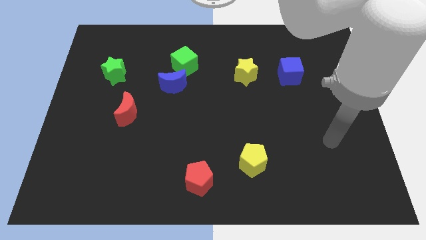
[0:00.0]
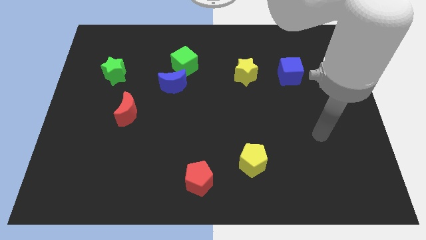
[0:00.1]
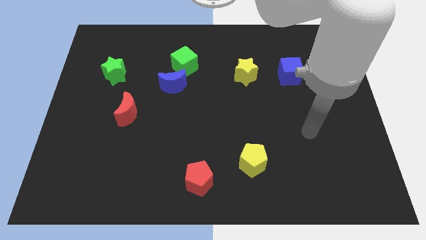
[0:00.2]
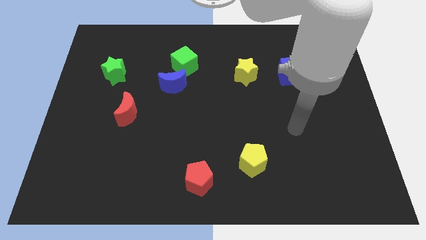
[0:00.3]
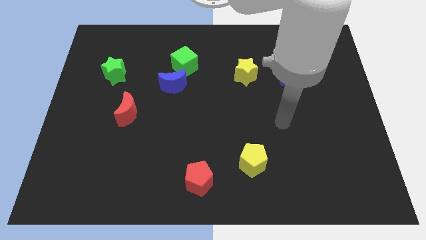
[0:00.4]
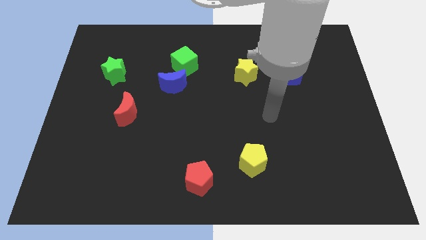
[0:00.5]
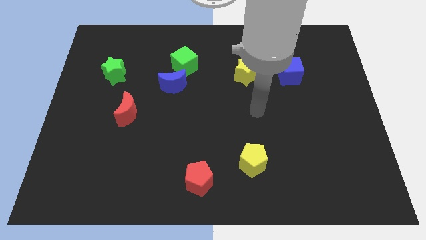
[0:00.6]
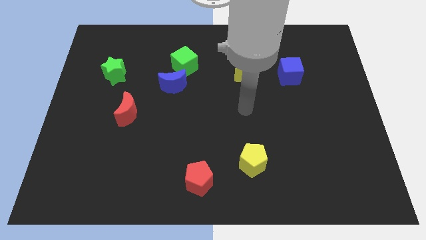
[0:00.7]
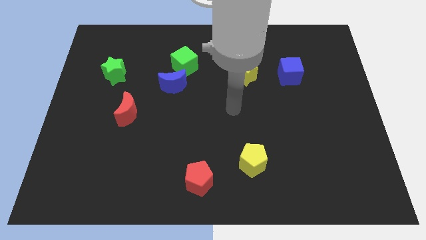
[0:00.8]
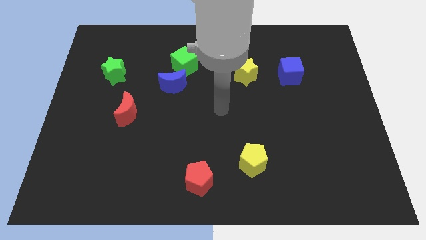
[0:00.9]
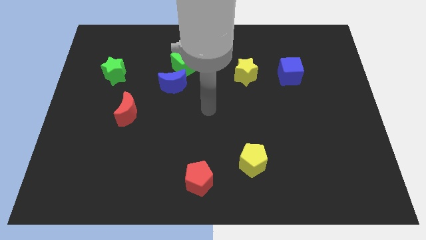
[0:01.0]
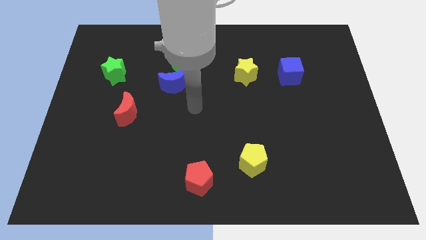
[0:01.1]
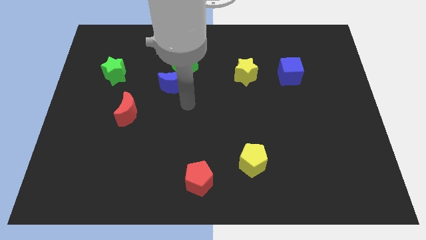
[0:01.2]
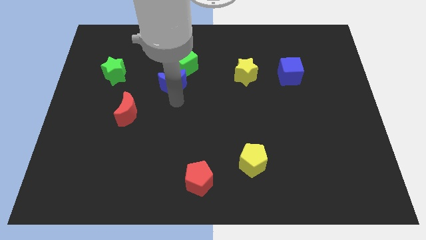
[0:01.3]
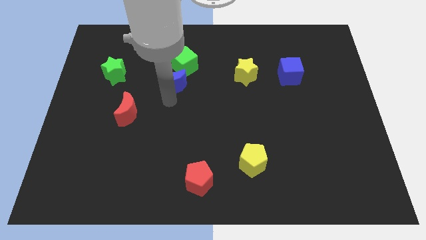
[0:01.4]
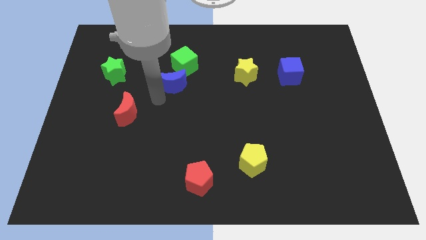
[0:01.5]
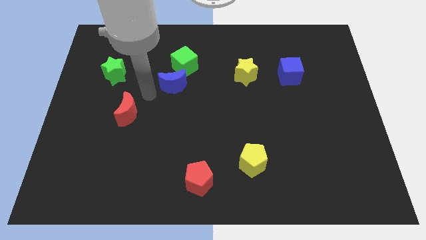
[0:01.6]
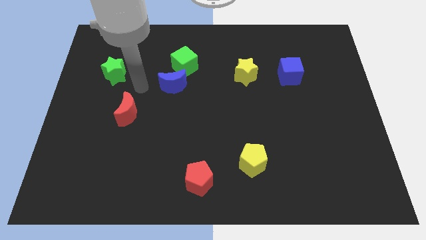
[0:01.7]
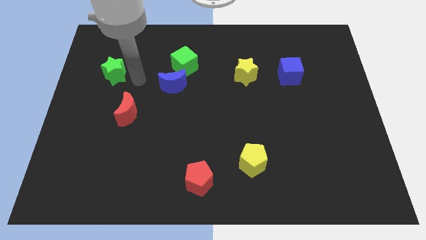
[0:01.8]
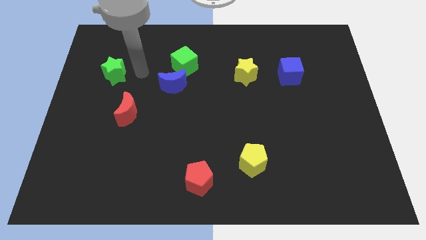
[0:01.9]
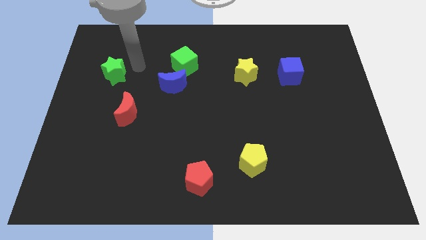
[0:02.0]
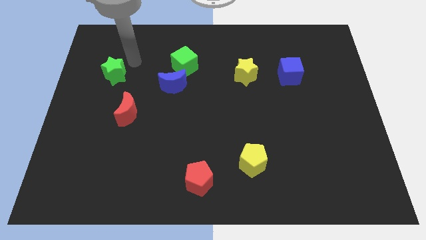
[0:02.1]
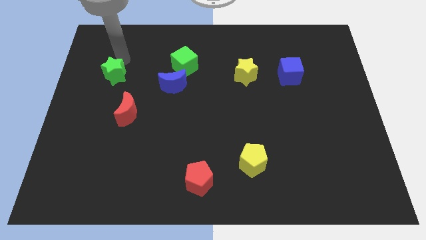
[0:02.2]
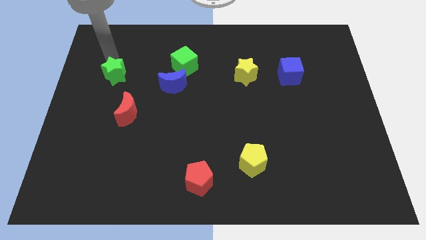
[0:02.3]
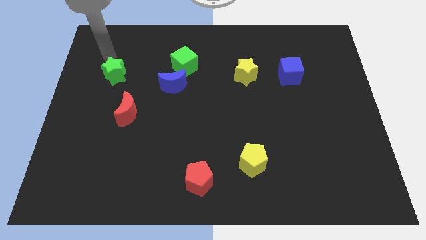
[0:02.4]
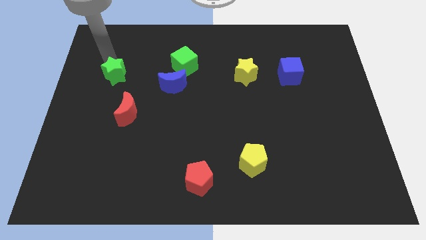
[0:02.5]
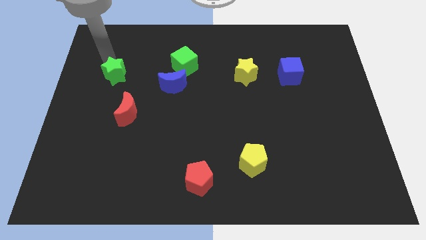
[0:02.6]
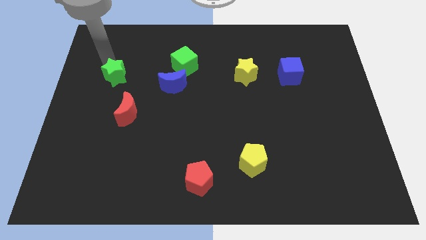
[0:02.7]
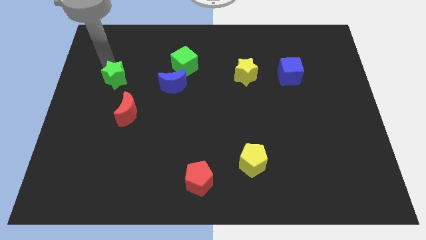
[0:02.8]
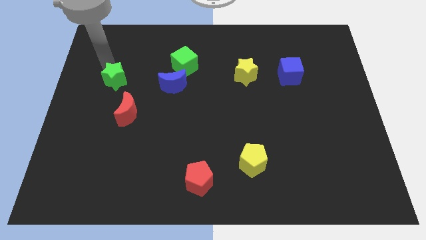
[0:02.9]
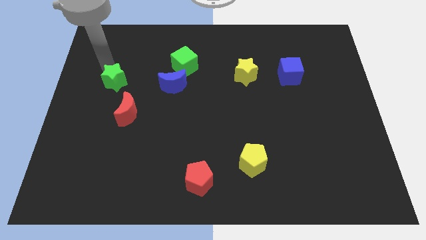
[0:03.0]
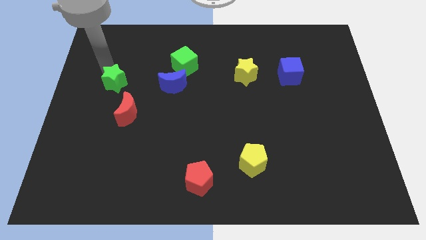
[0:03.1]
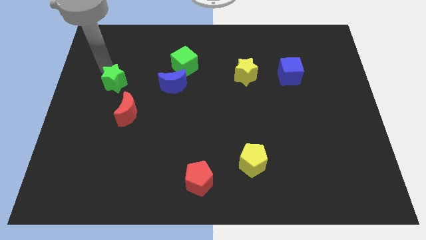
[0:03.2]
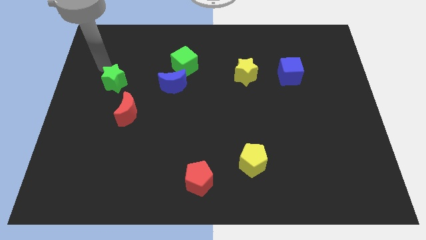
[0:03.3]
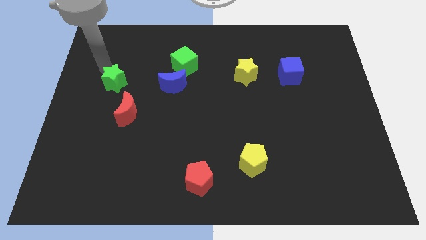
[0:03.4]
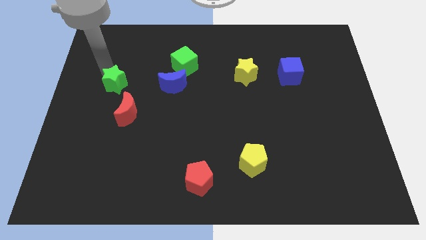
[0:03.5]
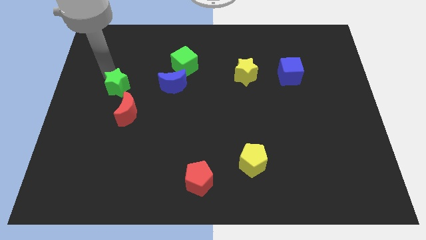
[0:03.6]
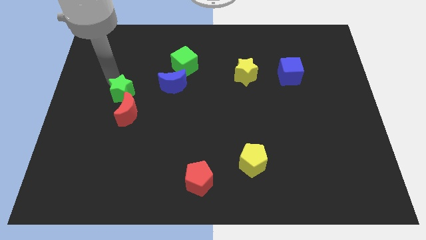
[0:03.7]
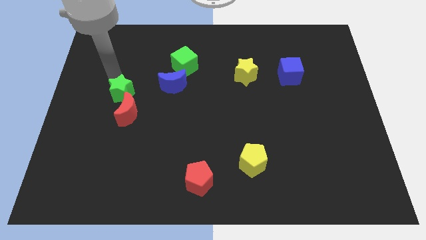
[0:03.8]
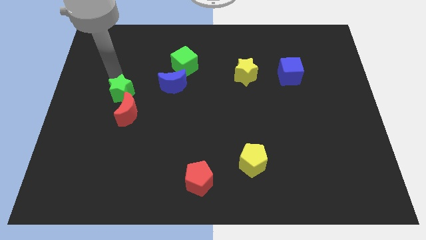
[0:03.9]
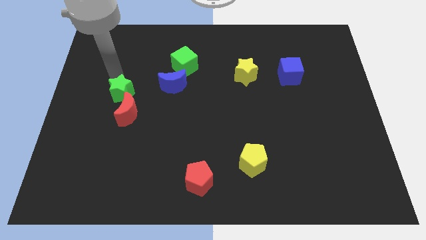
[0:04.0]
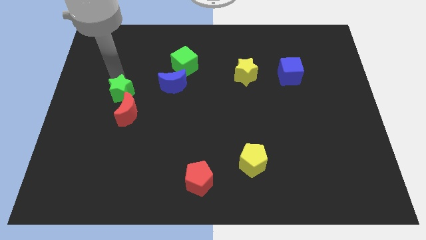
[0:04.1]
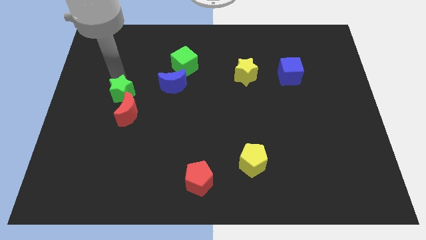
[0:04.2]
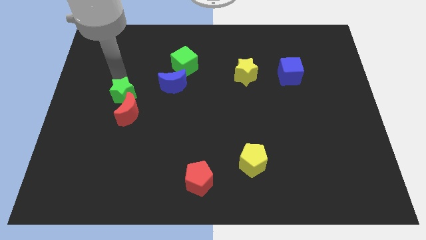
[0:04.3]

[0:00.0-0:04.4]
put the green star close to the red moon

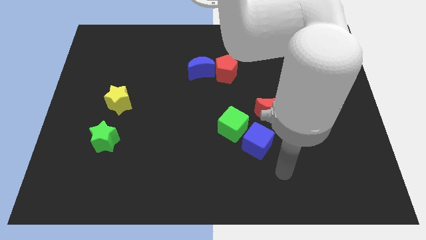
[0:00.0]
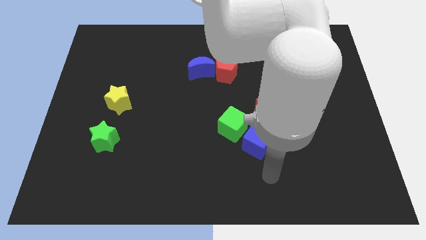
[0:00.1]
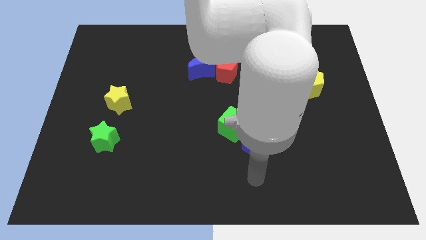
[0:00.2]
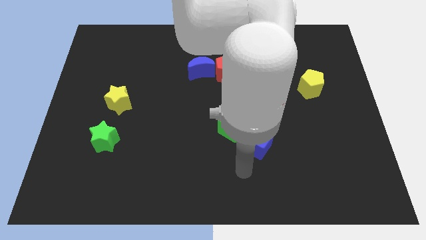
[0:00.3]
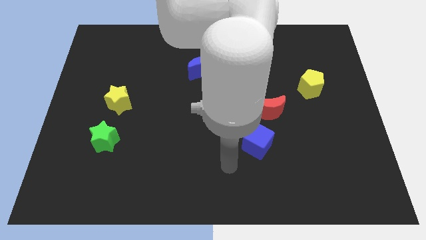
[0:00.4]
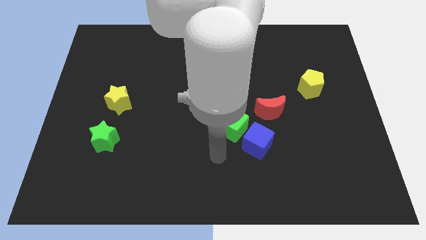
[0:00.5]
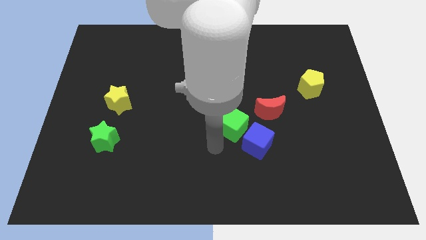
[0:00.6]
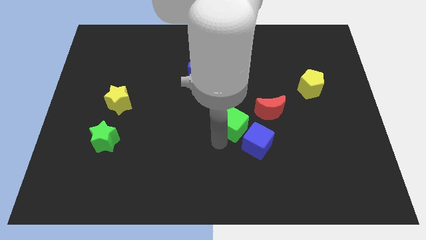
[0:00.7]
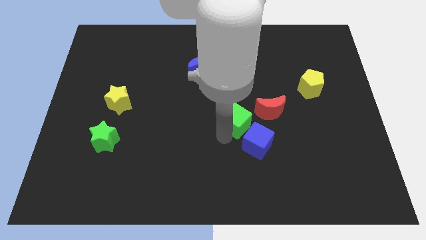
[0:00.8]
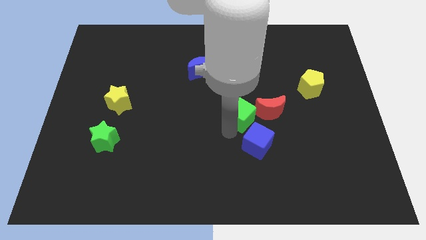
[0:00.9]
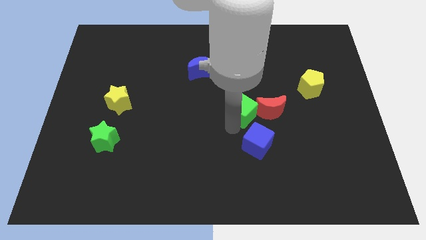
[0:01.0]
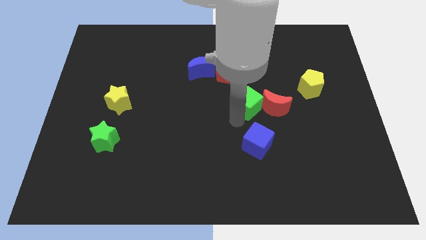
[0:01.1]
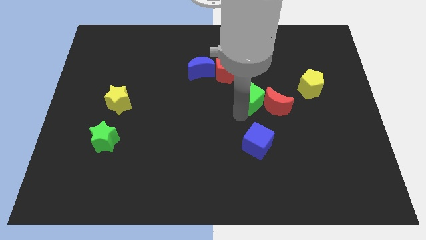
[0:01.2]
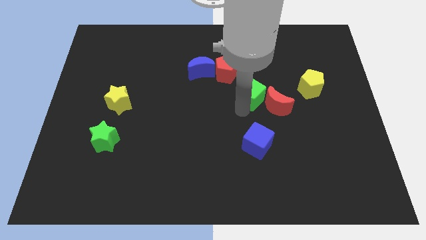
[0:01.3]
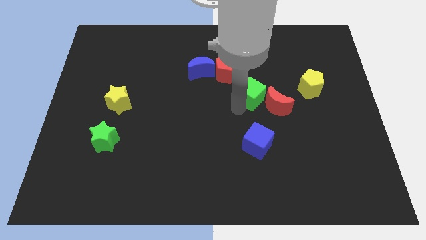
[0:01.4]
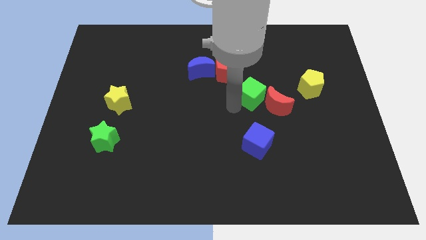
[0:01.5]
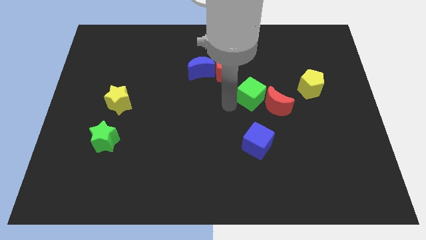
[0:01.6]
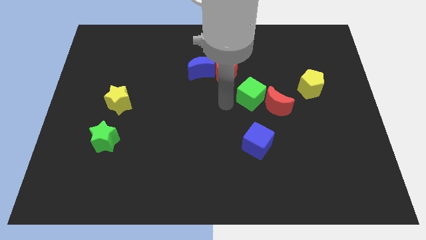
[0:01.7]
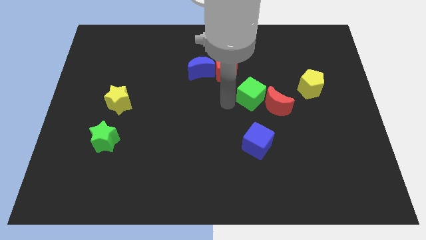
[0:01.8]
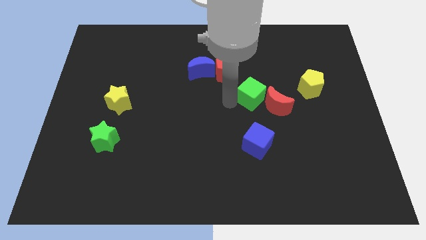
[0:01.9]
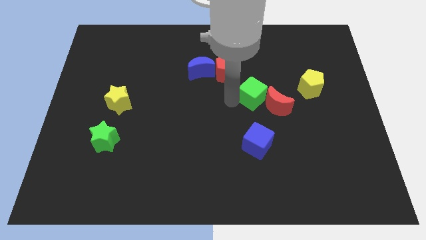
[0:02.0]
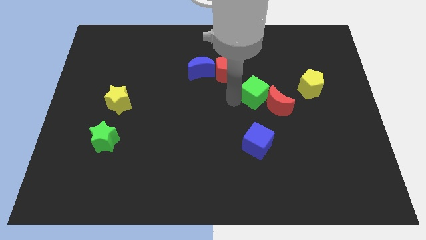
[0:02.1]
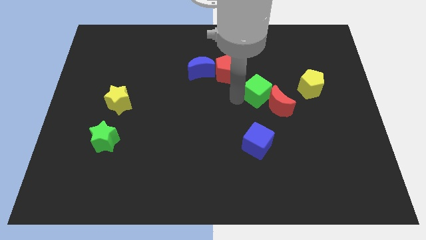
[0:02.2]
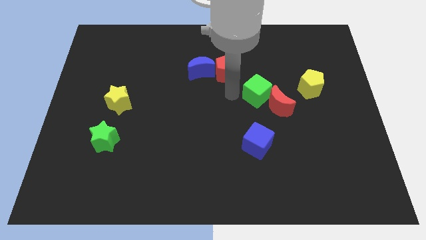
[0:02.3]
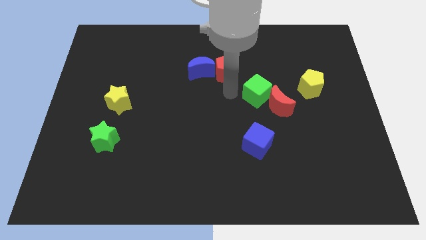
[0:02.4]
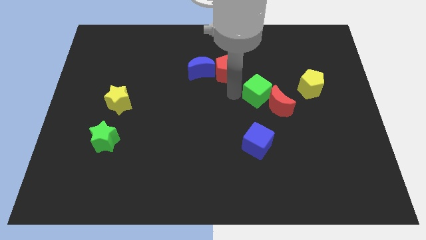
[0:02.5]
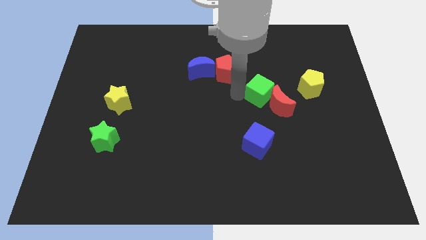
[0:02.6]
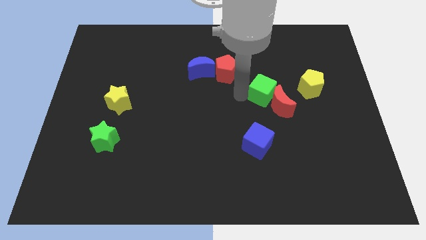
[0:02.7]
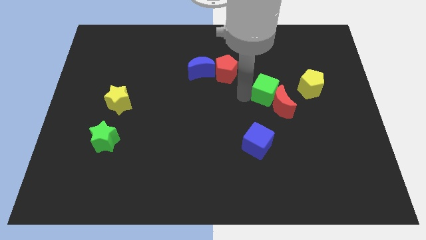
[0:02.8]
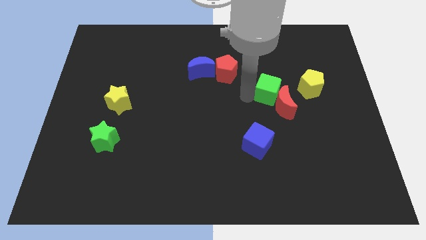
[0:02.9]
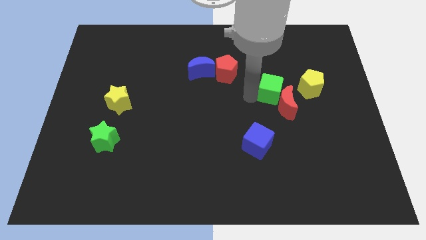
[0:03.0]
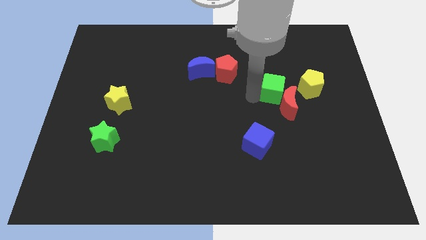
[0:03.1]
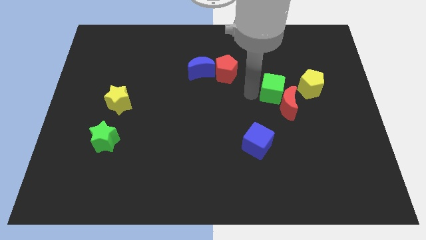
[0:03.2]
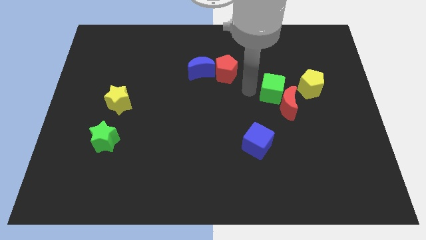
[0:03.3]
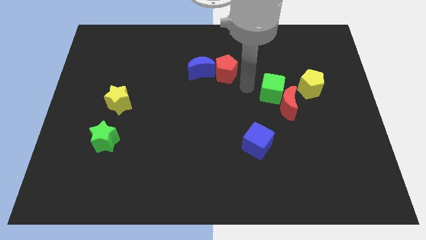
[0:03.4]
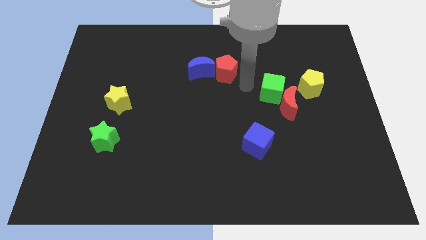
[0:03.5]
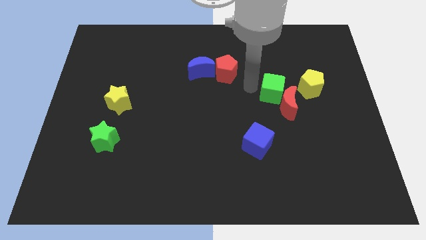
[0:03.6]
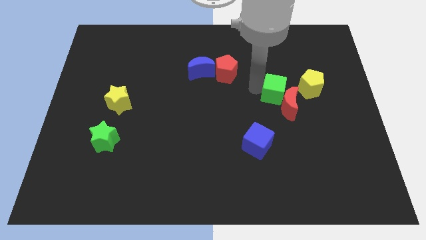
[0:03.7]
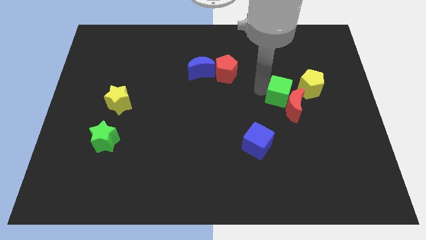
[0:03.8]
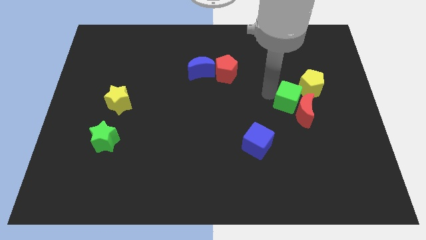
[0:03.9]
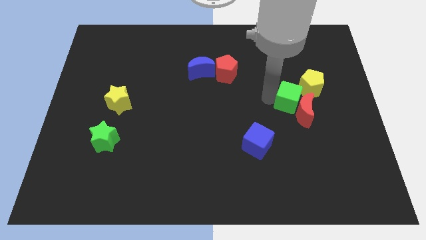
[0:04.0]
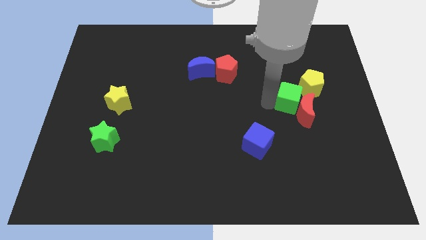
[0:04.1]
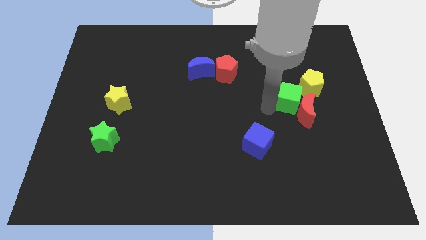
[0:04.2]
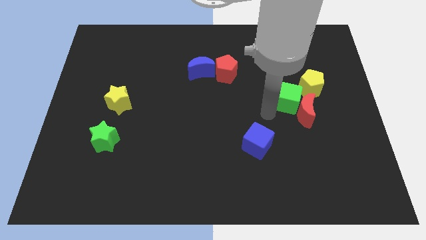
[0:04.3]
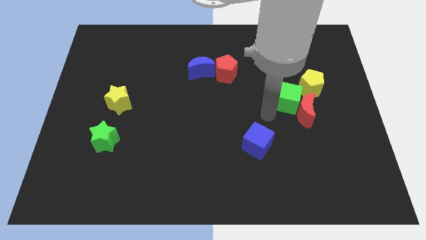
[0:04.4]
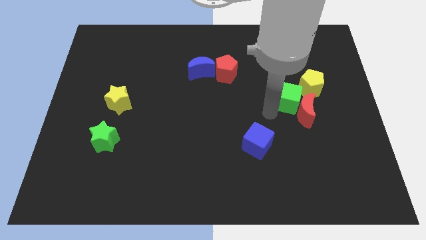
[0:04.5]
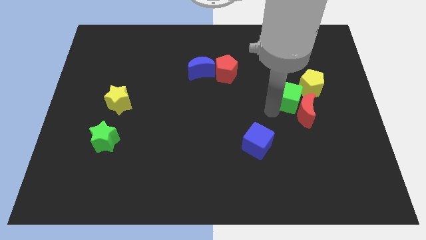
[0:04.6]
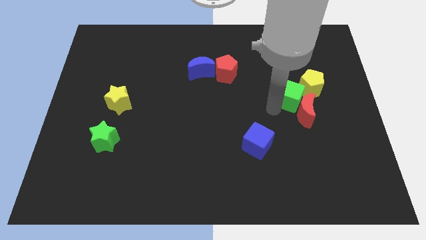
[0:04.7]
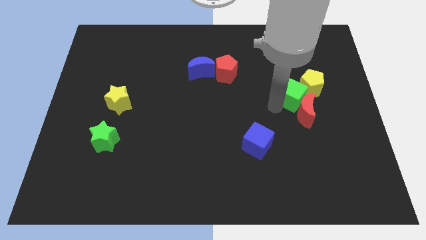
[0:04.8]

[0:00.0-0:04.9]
move the green cube to the yellow pentagon
